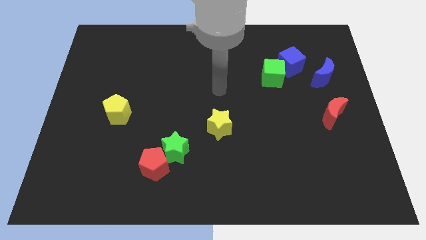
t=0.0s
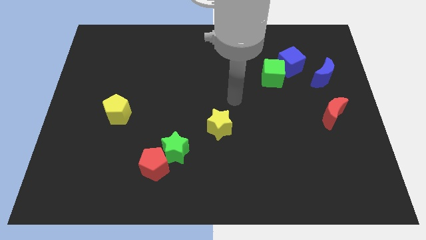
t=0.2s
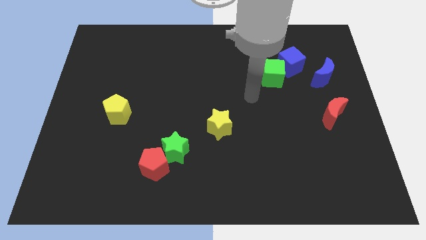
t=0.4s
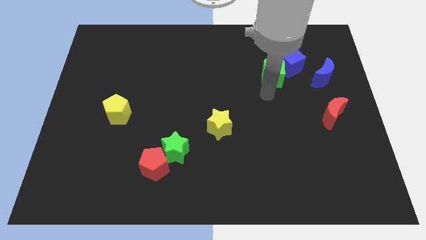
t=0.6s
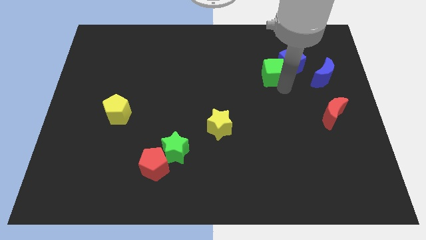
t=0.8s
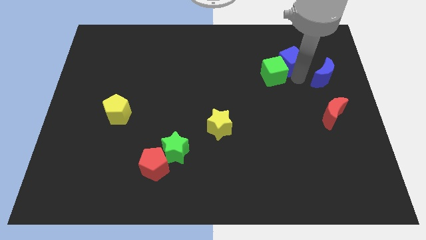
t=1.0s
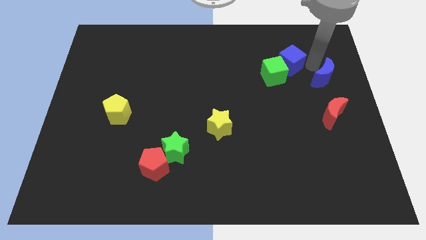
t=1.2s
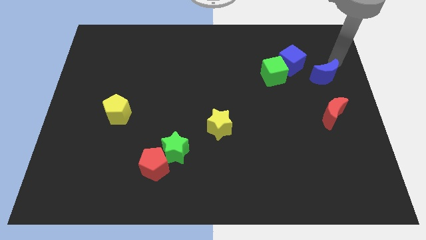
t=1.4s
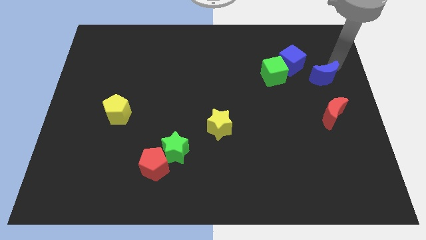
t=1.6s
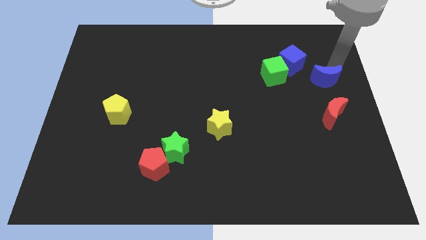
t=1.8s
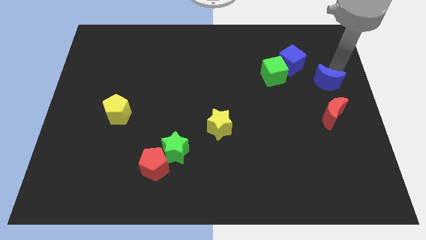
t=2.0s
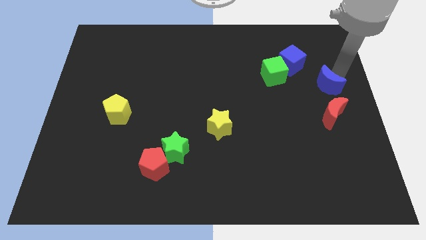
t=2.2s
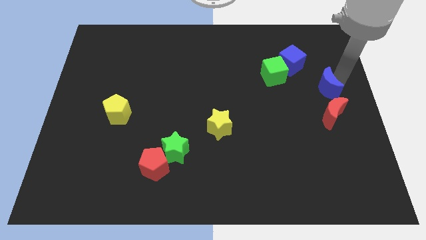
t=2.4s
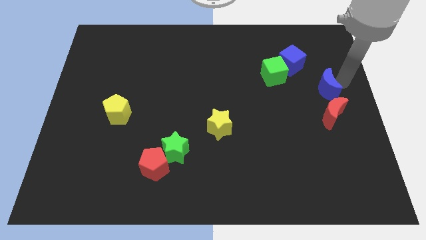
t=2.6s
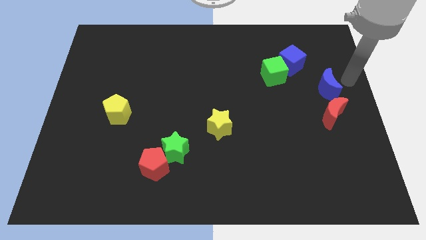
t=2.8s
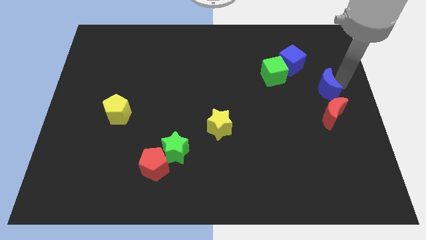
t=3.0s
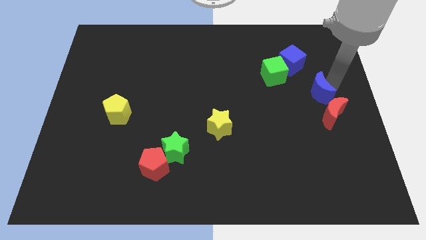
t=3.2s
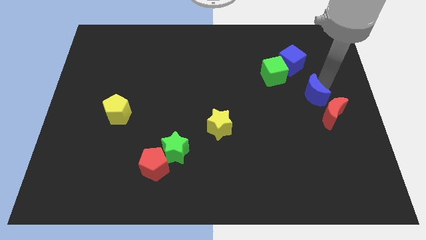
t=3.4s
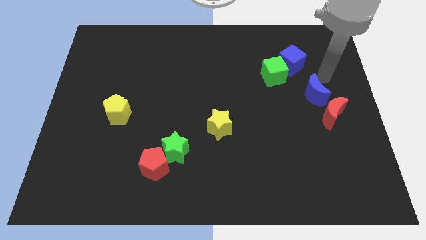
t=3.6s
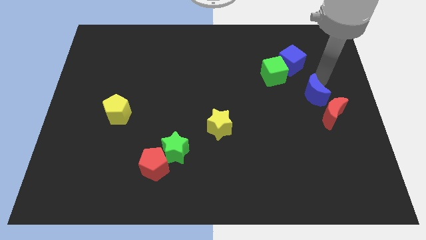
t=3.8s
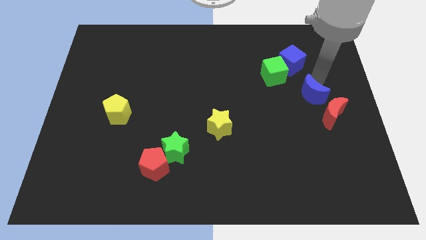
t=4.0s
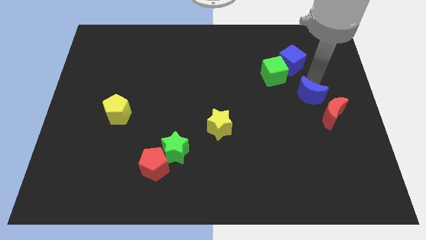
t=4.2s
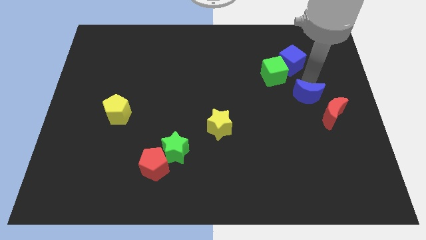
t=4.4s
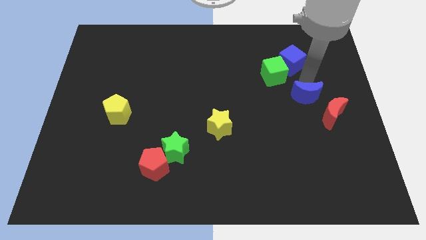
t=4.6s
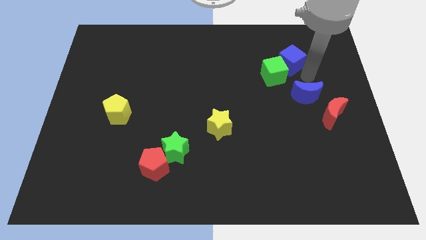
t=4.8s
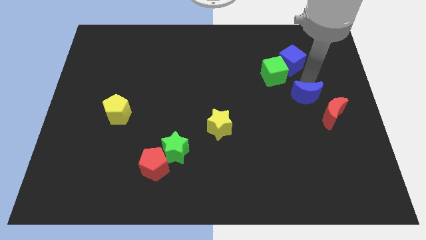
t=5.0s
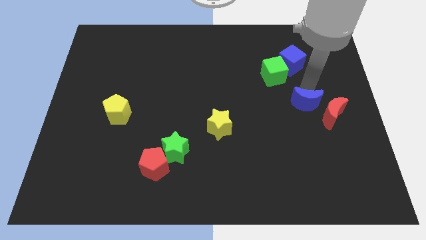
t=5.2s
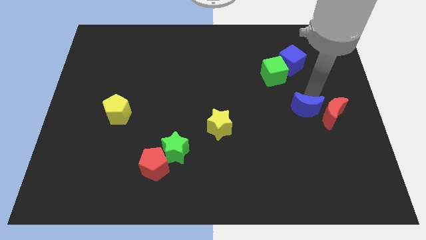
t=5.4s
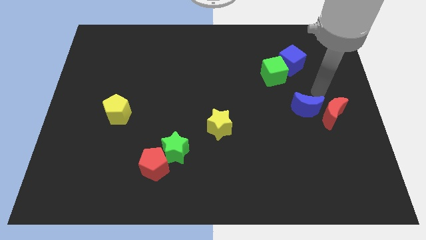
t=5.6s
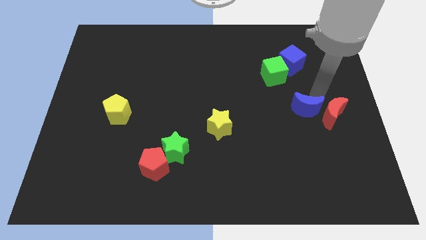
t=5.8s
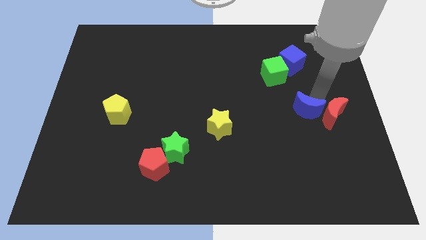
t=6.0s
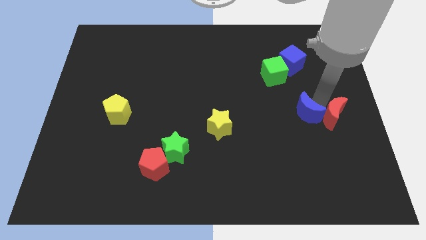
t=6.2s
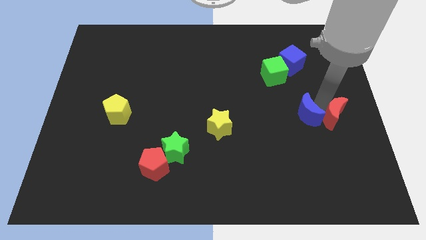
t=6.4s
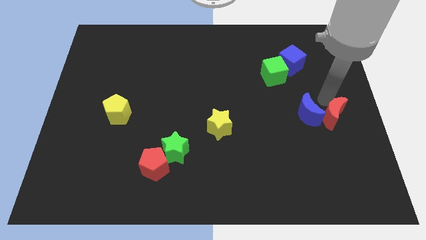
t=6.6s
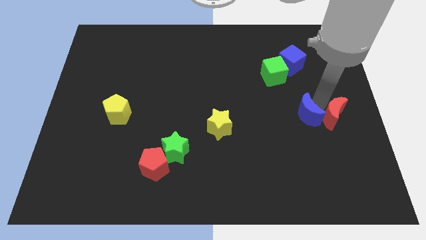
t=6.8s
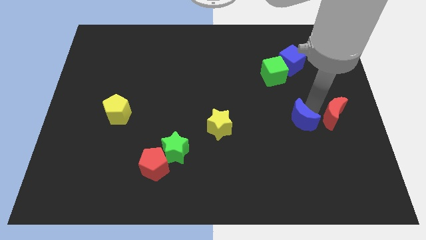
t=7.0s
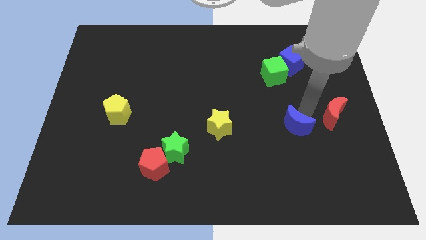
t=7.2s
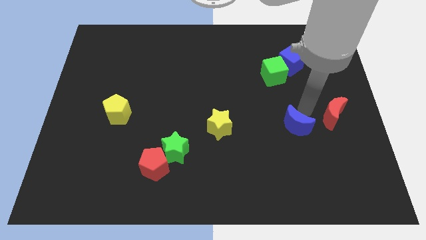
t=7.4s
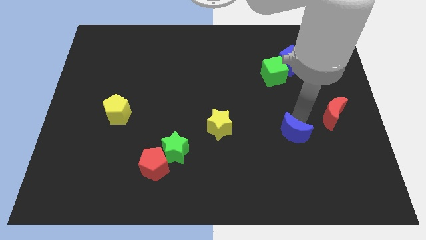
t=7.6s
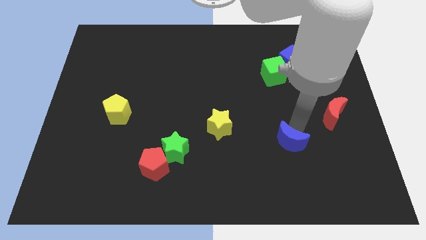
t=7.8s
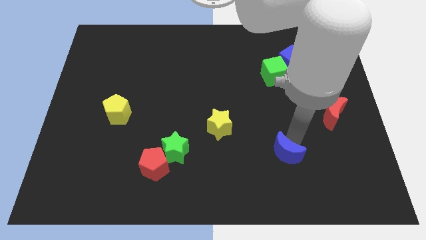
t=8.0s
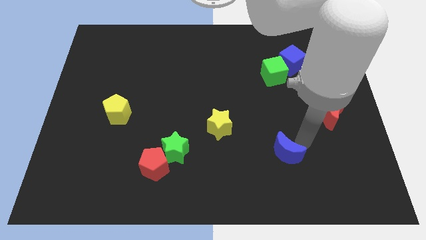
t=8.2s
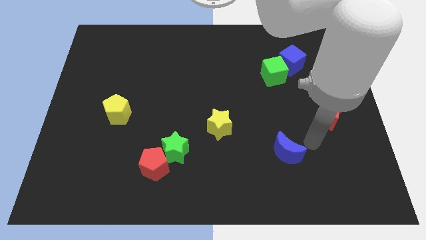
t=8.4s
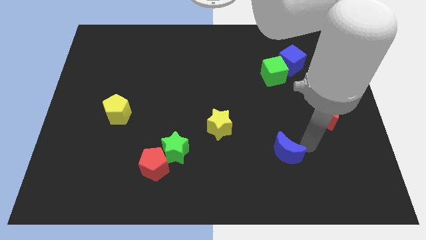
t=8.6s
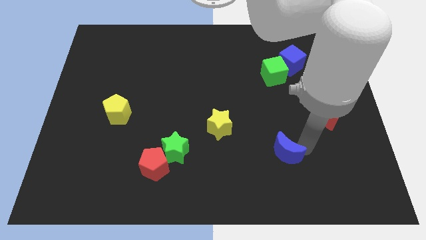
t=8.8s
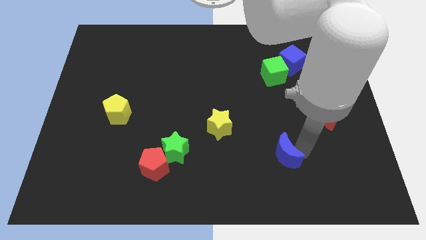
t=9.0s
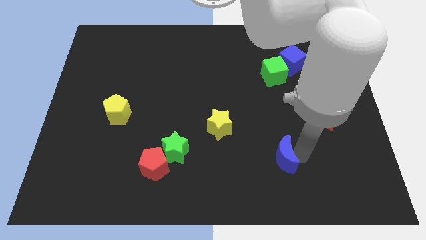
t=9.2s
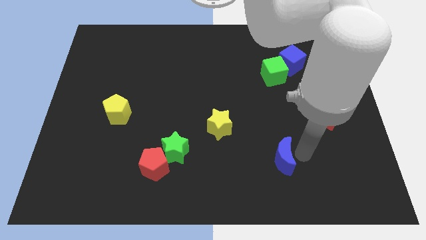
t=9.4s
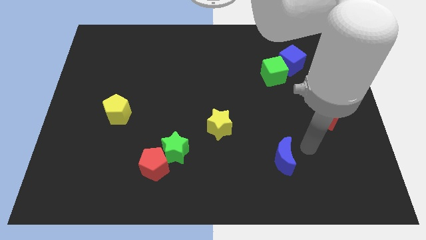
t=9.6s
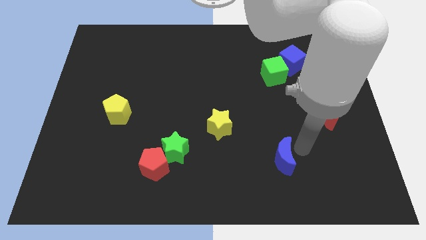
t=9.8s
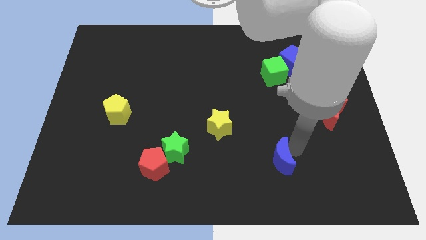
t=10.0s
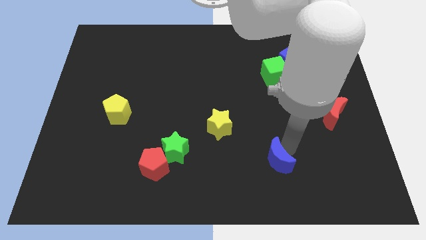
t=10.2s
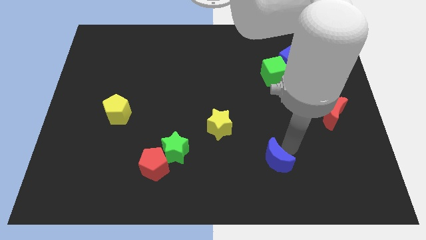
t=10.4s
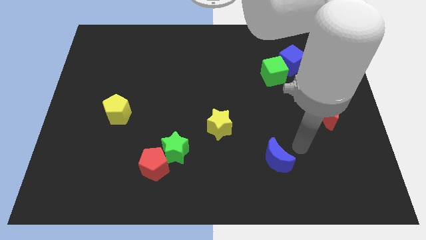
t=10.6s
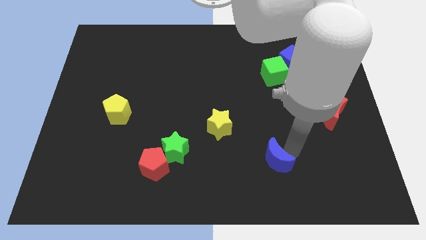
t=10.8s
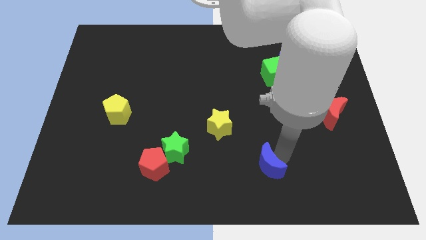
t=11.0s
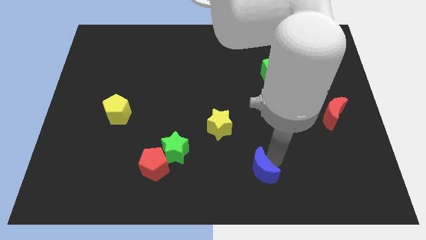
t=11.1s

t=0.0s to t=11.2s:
slide the blue moon to the bottom

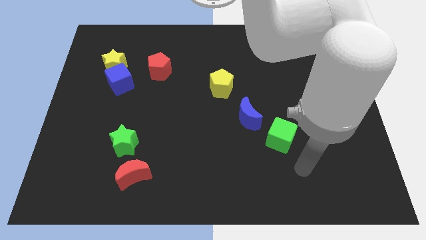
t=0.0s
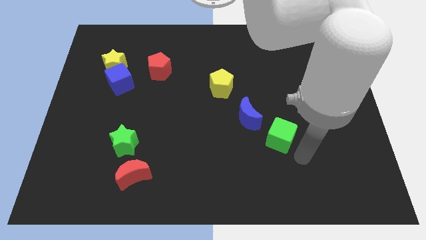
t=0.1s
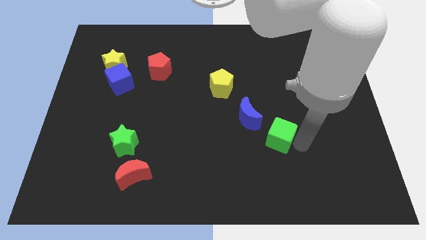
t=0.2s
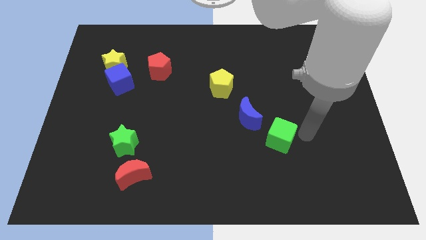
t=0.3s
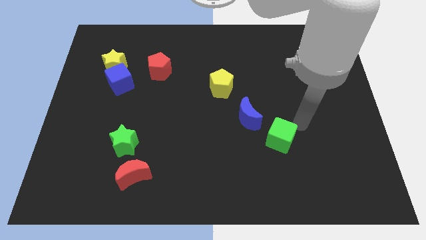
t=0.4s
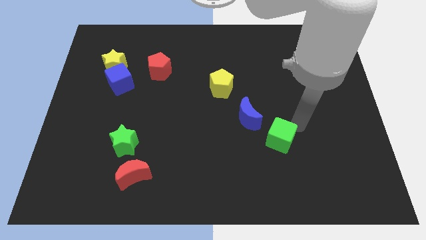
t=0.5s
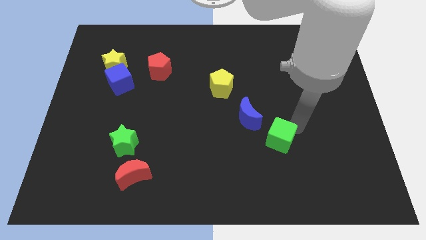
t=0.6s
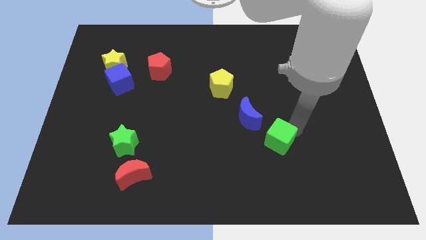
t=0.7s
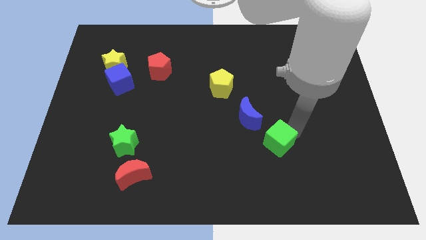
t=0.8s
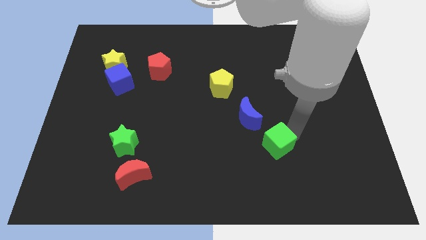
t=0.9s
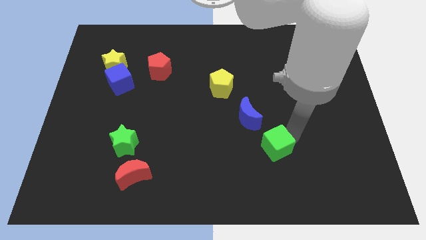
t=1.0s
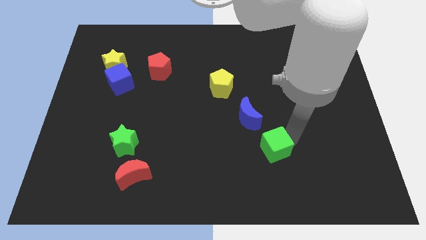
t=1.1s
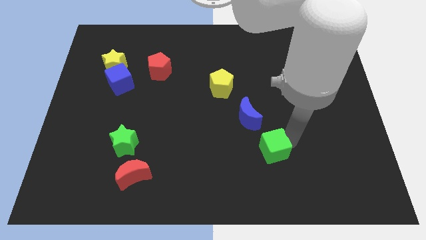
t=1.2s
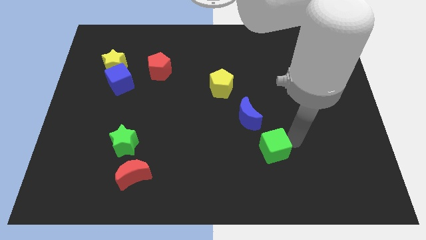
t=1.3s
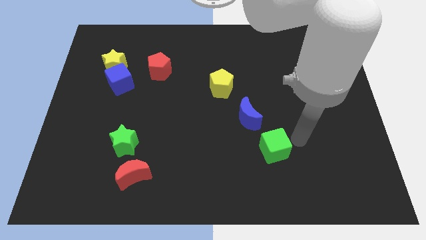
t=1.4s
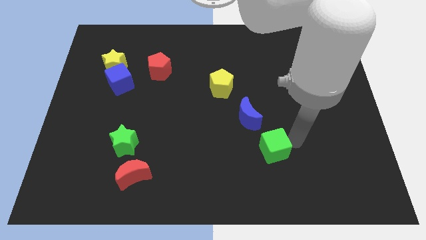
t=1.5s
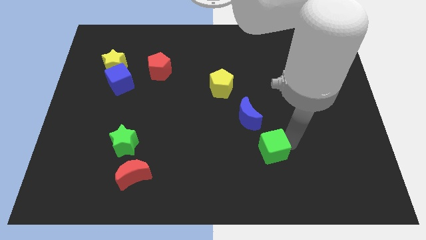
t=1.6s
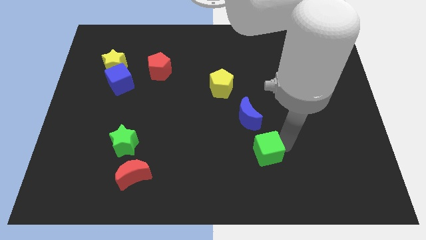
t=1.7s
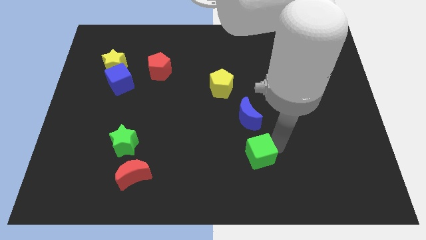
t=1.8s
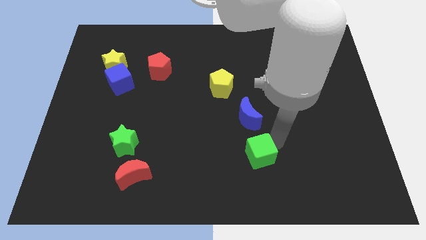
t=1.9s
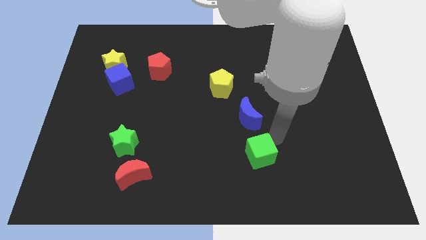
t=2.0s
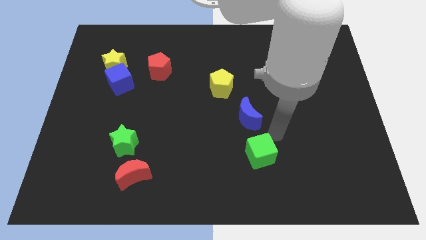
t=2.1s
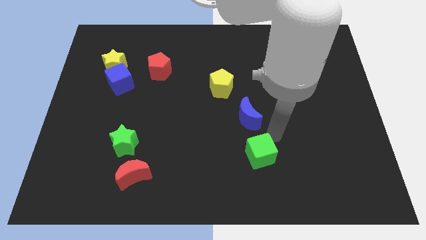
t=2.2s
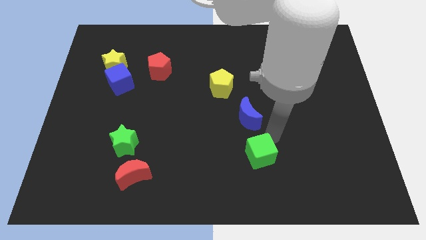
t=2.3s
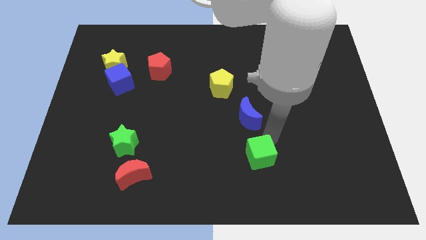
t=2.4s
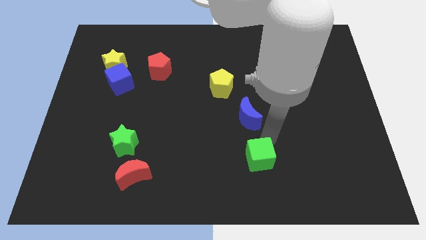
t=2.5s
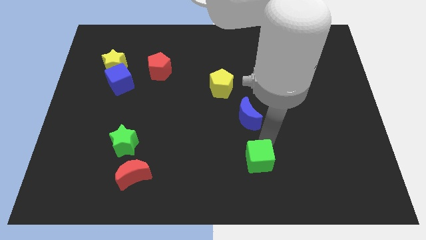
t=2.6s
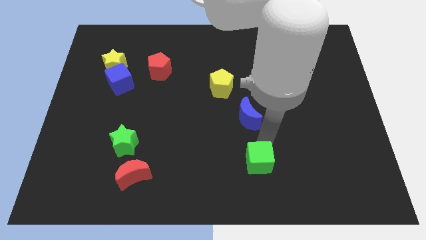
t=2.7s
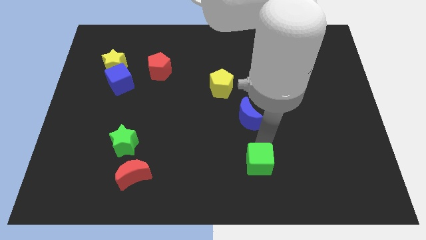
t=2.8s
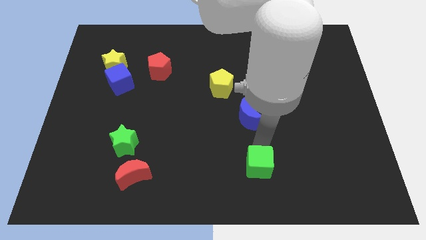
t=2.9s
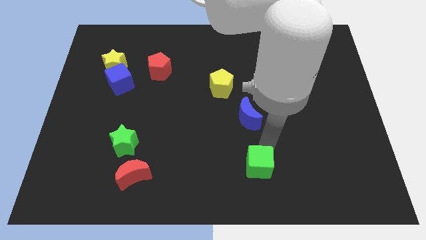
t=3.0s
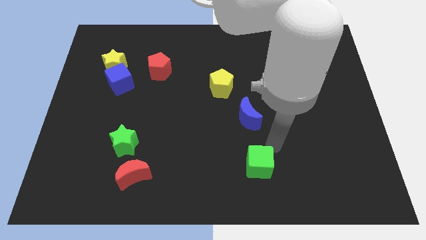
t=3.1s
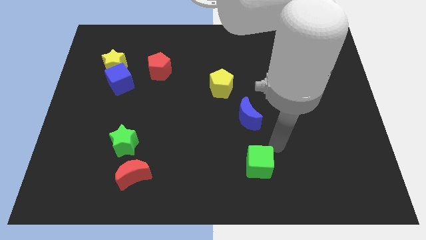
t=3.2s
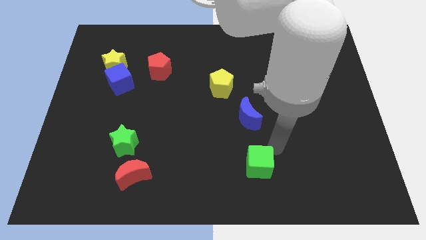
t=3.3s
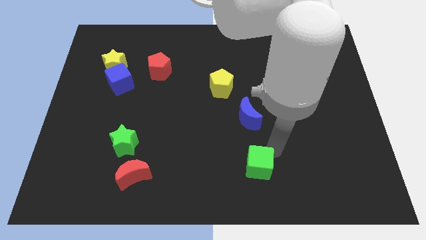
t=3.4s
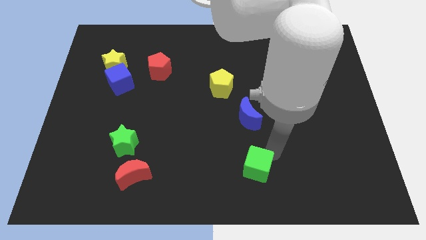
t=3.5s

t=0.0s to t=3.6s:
push the green cube to the bottom
